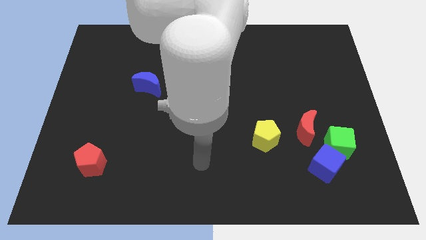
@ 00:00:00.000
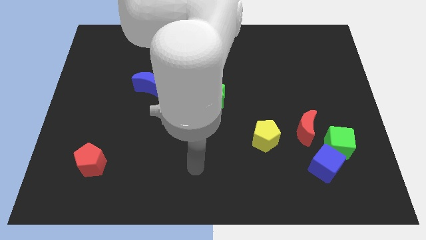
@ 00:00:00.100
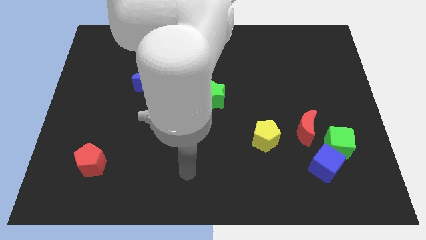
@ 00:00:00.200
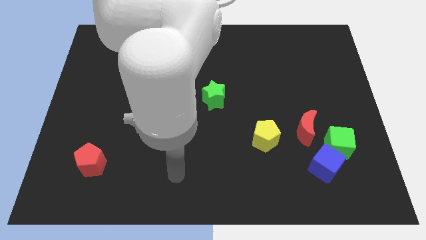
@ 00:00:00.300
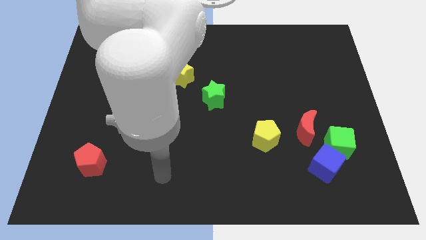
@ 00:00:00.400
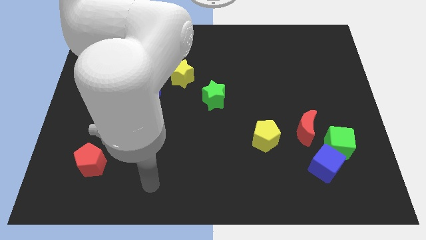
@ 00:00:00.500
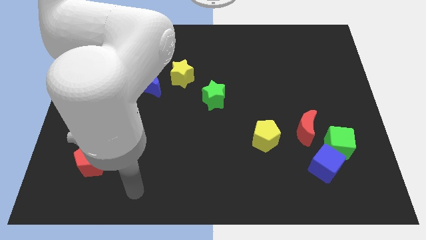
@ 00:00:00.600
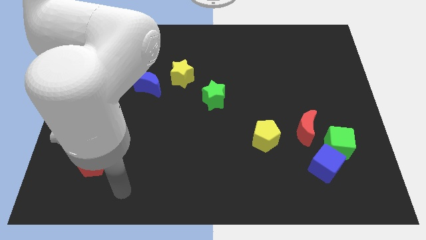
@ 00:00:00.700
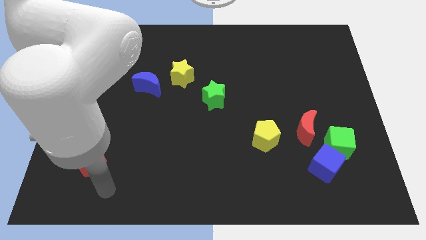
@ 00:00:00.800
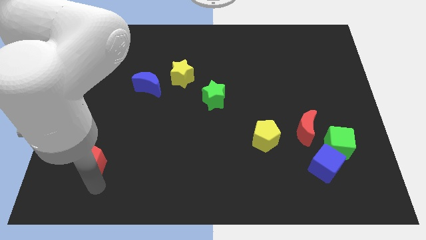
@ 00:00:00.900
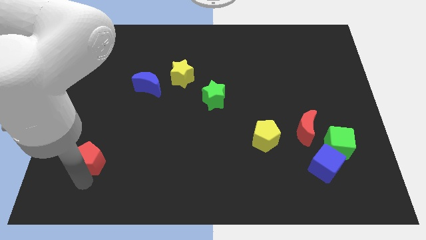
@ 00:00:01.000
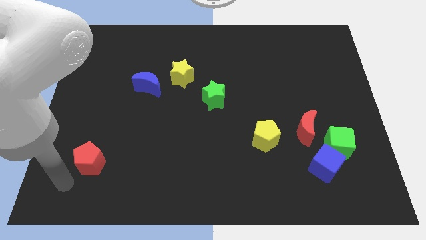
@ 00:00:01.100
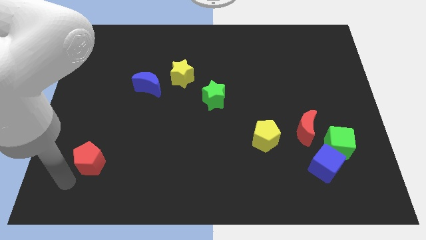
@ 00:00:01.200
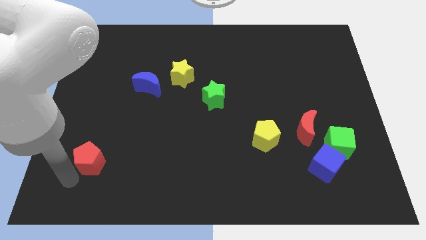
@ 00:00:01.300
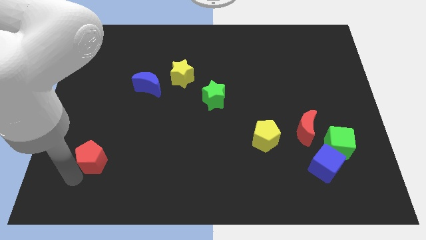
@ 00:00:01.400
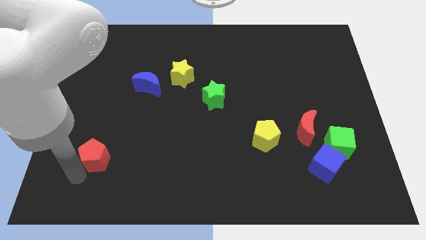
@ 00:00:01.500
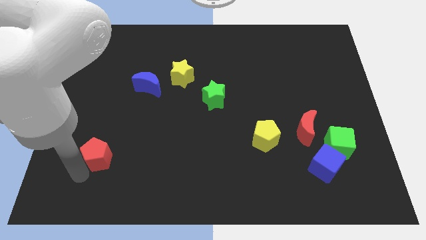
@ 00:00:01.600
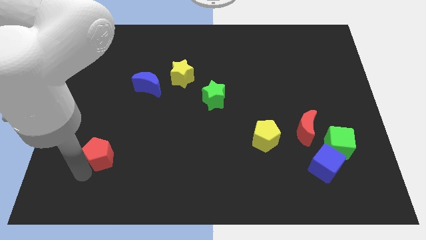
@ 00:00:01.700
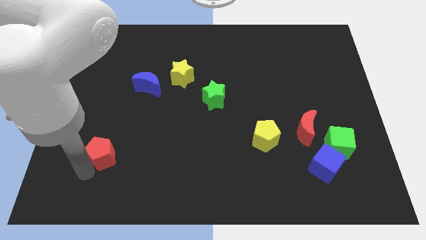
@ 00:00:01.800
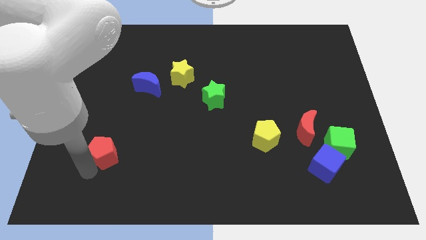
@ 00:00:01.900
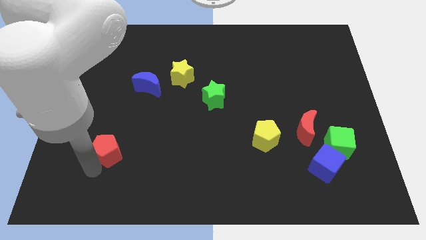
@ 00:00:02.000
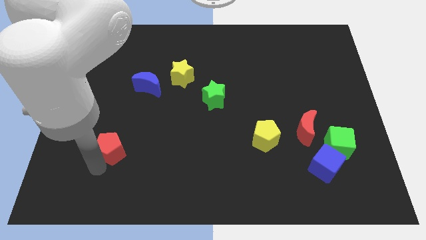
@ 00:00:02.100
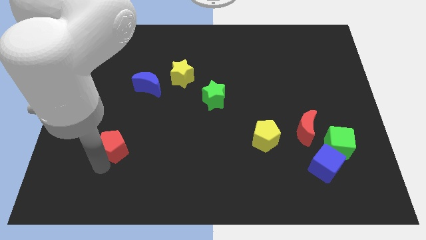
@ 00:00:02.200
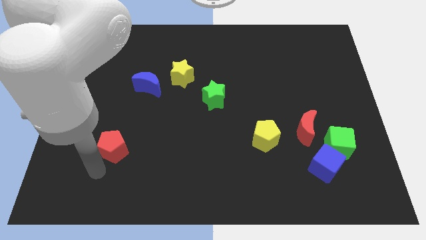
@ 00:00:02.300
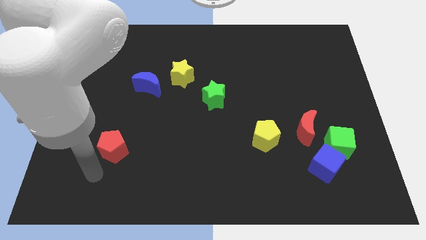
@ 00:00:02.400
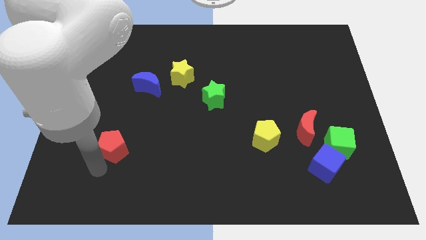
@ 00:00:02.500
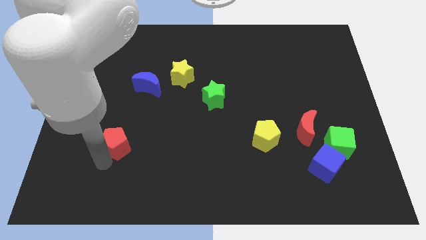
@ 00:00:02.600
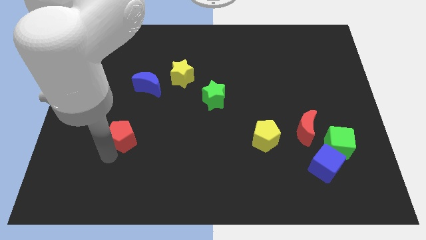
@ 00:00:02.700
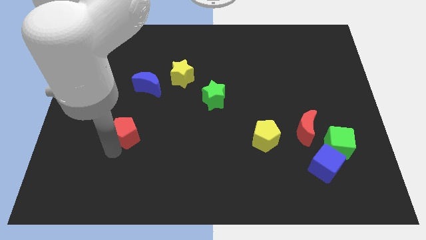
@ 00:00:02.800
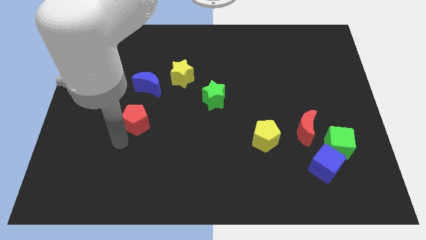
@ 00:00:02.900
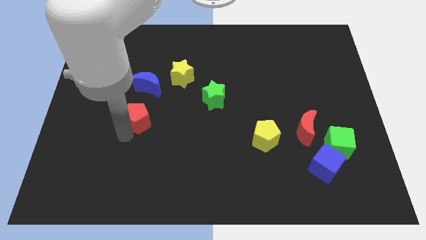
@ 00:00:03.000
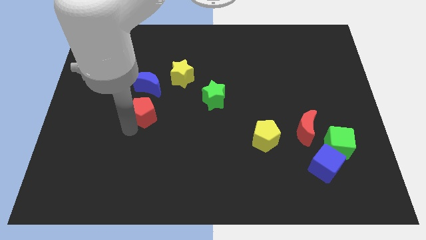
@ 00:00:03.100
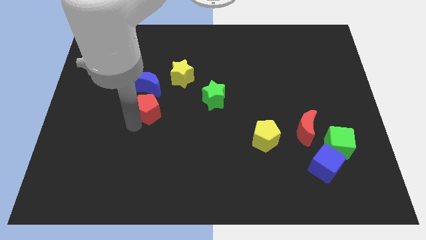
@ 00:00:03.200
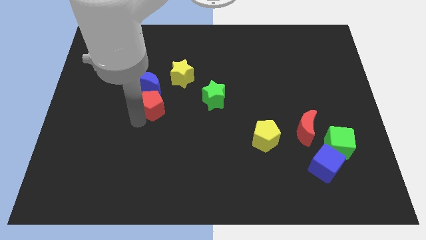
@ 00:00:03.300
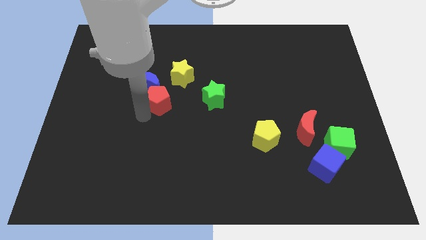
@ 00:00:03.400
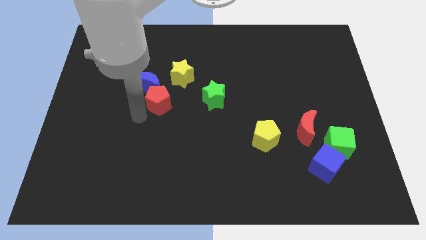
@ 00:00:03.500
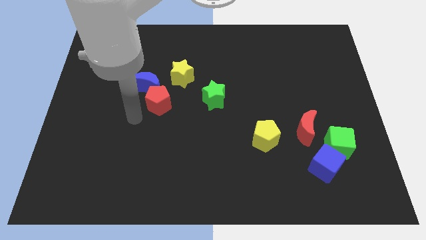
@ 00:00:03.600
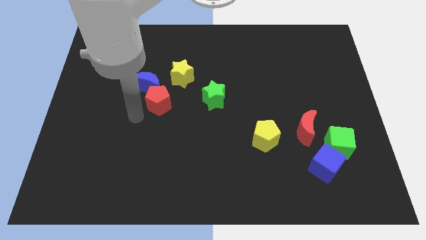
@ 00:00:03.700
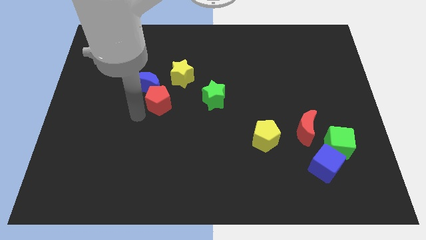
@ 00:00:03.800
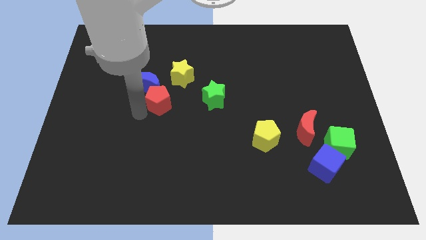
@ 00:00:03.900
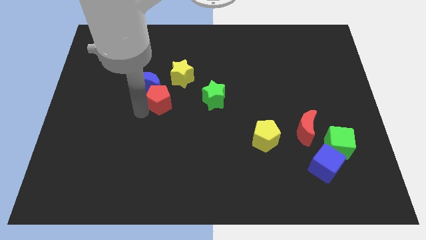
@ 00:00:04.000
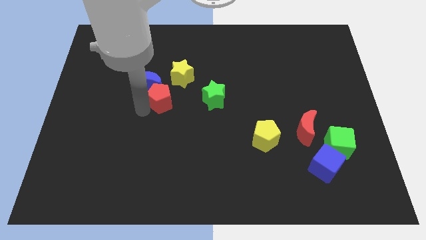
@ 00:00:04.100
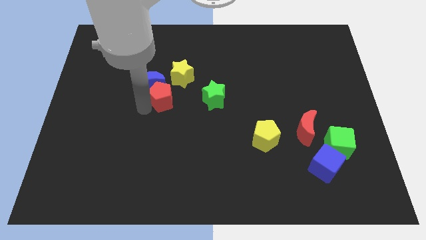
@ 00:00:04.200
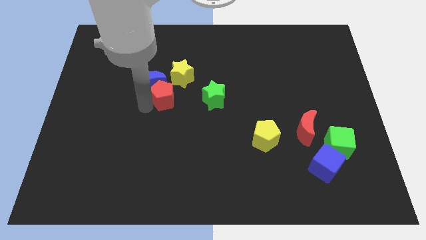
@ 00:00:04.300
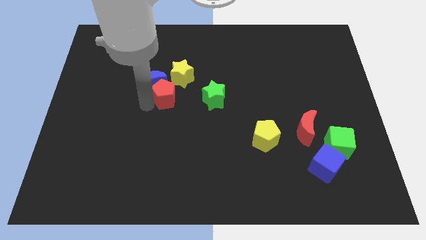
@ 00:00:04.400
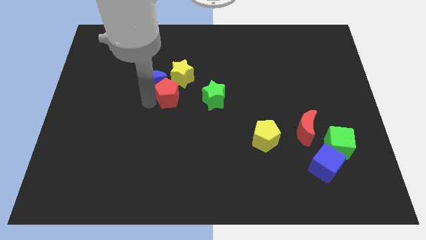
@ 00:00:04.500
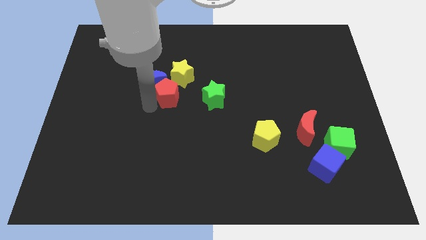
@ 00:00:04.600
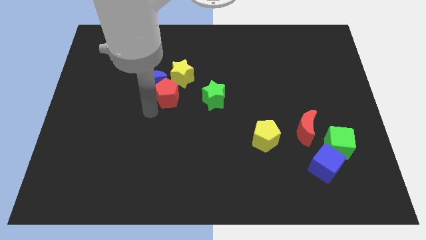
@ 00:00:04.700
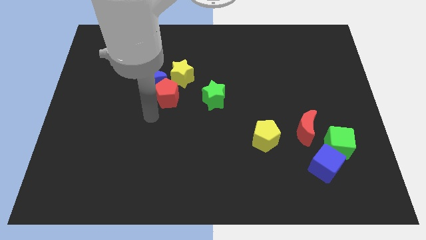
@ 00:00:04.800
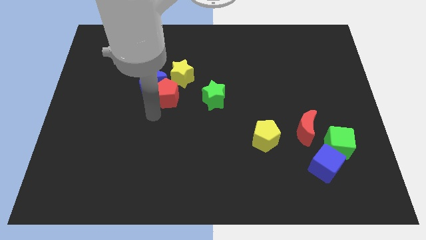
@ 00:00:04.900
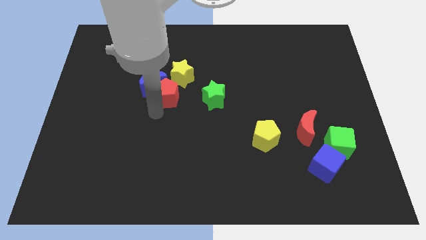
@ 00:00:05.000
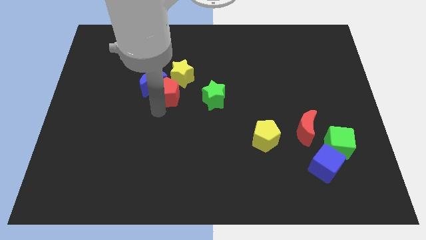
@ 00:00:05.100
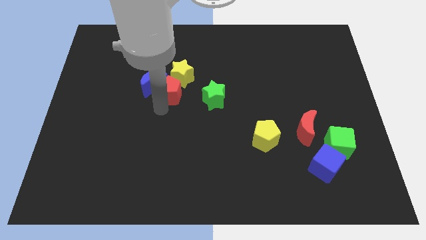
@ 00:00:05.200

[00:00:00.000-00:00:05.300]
put the red pentagon next to the yellow star

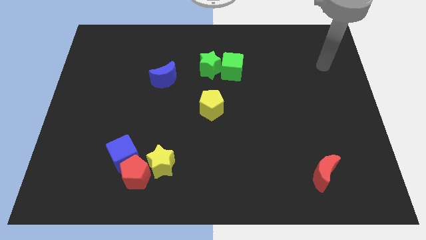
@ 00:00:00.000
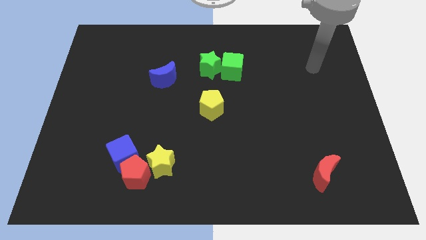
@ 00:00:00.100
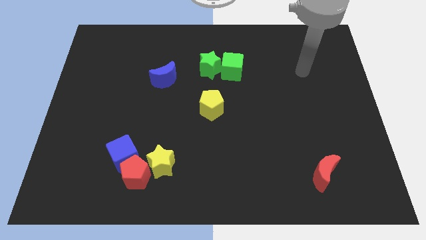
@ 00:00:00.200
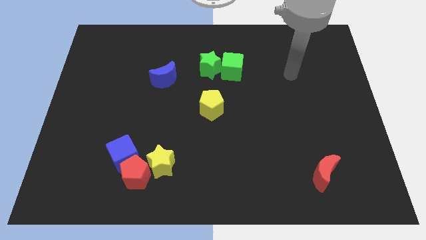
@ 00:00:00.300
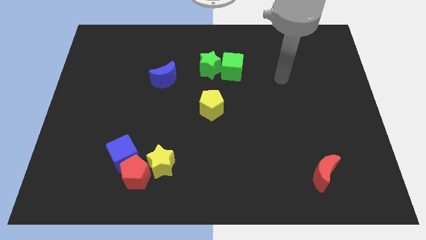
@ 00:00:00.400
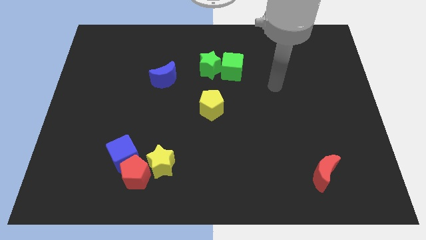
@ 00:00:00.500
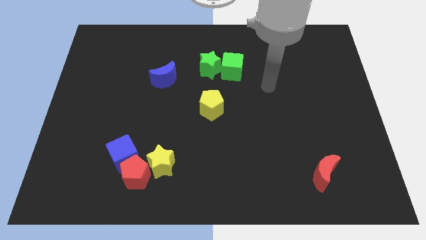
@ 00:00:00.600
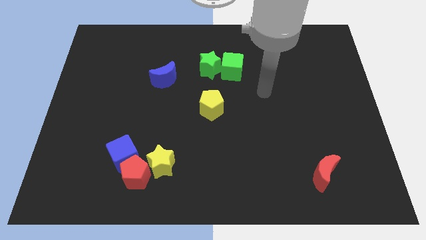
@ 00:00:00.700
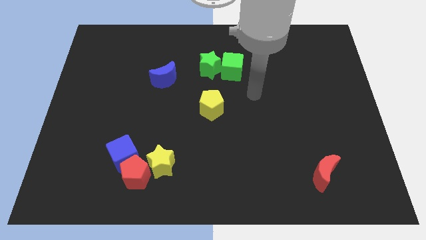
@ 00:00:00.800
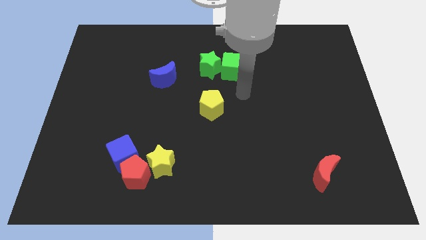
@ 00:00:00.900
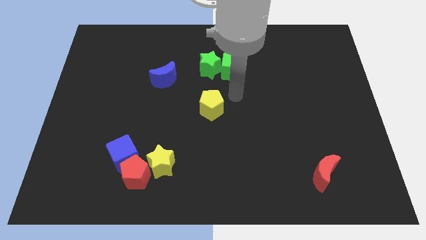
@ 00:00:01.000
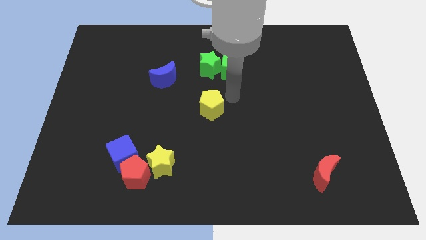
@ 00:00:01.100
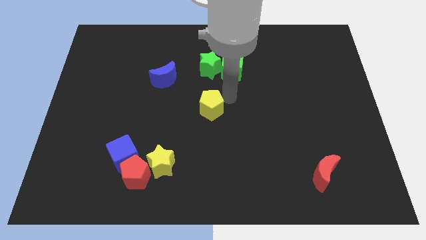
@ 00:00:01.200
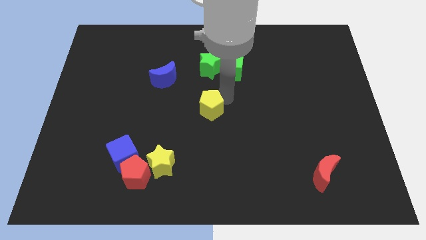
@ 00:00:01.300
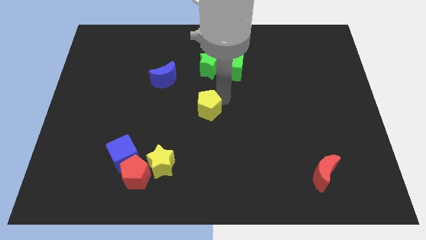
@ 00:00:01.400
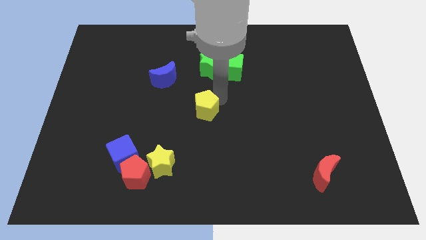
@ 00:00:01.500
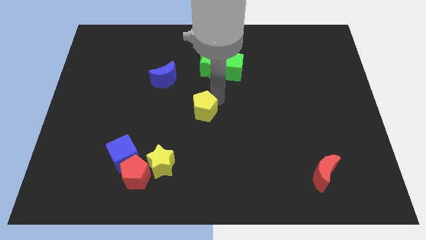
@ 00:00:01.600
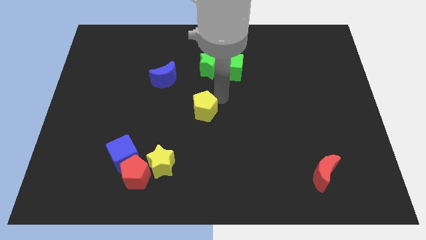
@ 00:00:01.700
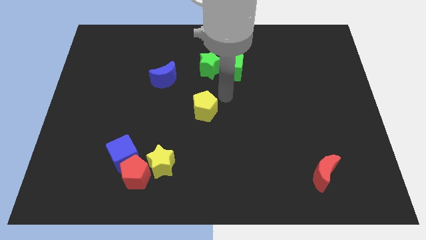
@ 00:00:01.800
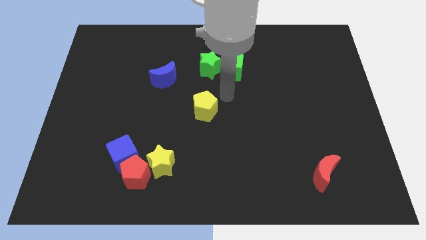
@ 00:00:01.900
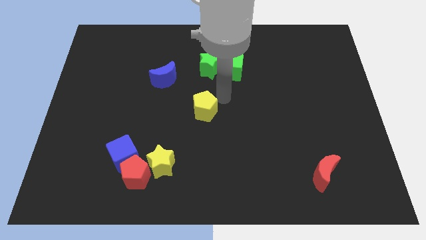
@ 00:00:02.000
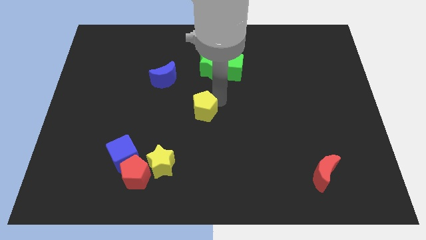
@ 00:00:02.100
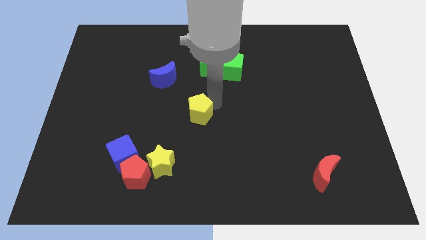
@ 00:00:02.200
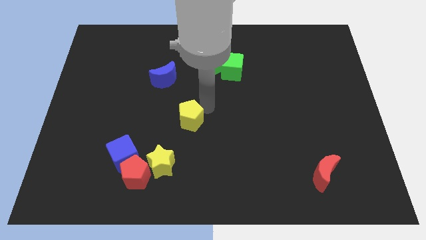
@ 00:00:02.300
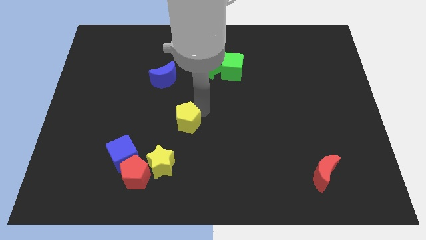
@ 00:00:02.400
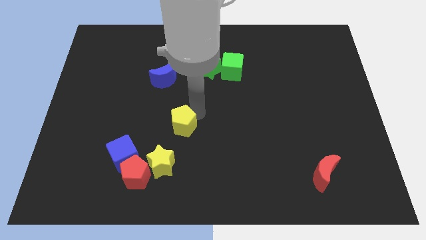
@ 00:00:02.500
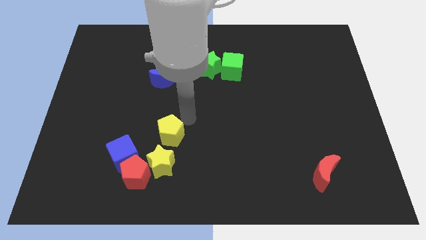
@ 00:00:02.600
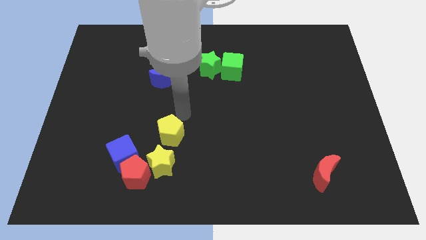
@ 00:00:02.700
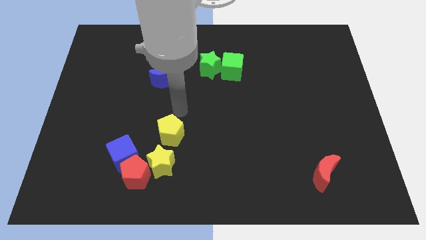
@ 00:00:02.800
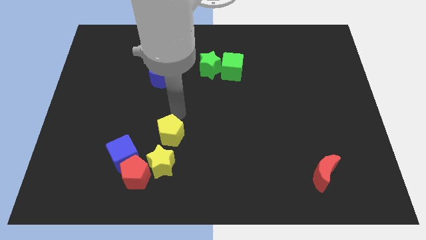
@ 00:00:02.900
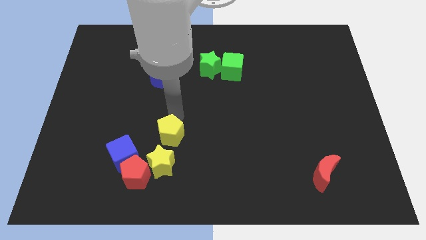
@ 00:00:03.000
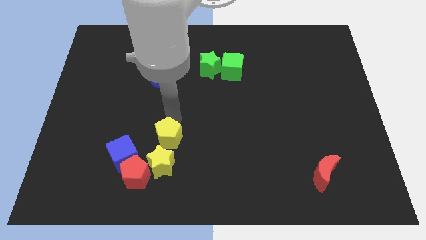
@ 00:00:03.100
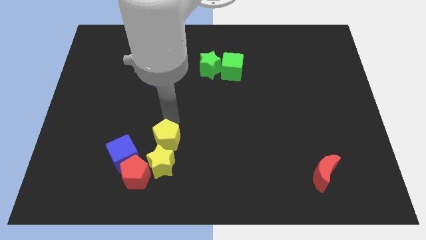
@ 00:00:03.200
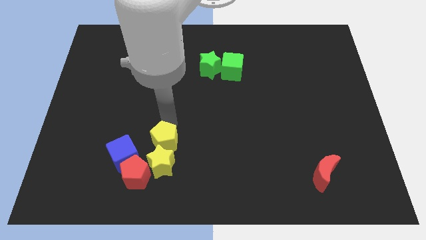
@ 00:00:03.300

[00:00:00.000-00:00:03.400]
push the yellow pentagon towards the yellow star
